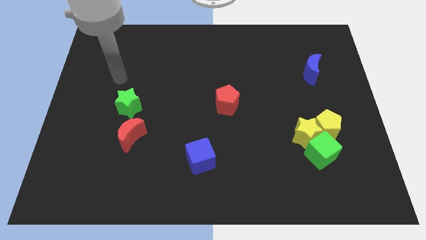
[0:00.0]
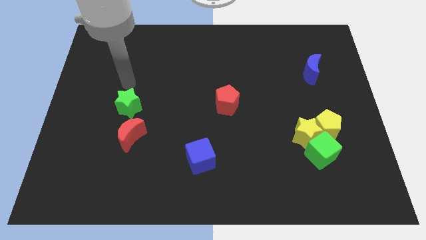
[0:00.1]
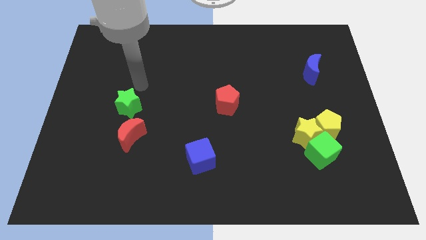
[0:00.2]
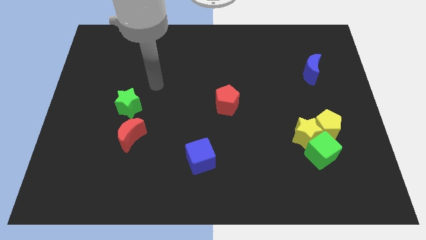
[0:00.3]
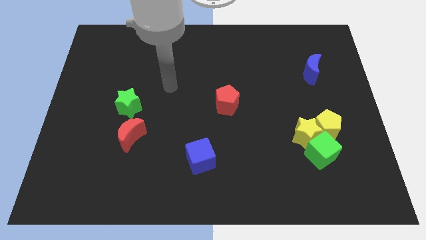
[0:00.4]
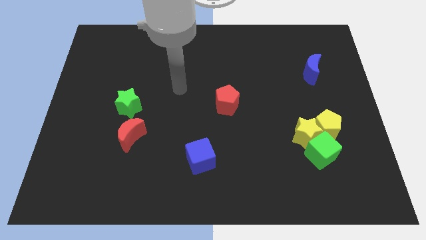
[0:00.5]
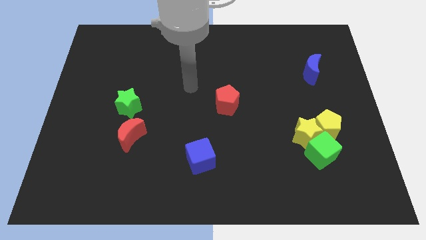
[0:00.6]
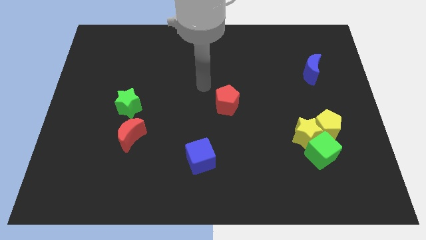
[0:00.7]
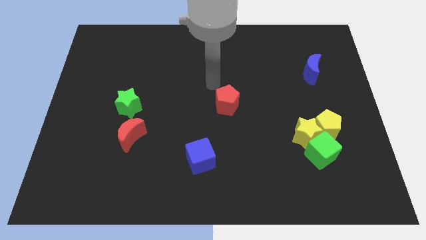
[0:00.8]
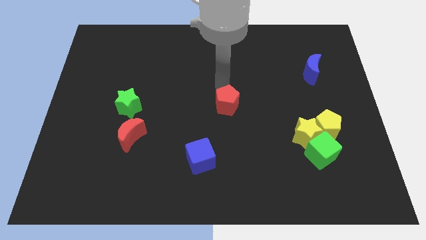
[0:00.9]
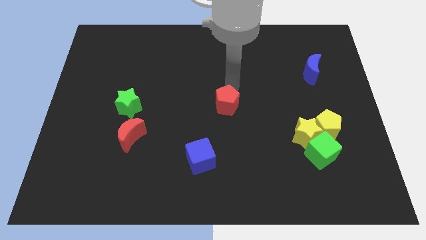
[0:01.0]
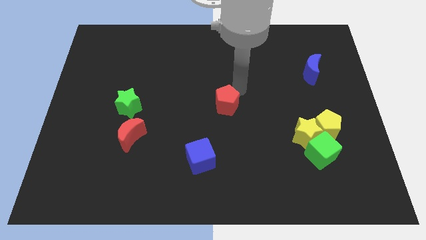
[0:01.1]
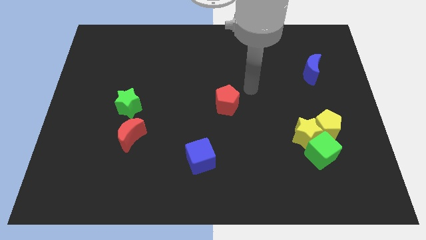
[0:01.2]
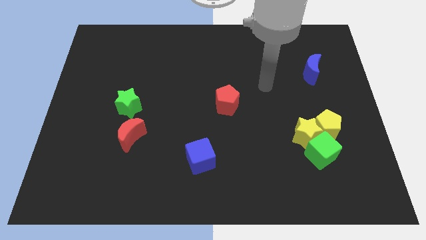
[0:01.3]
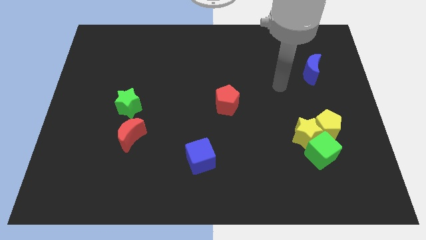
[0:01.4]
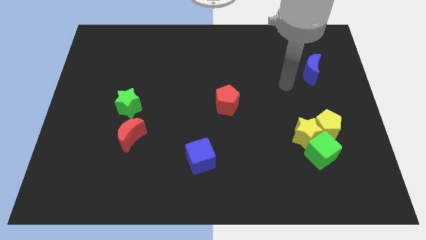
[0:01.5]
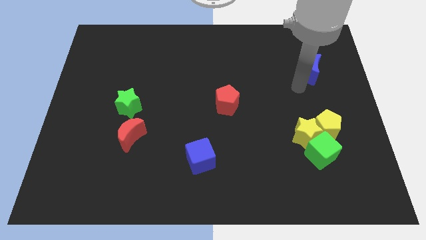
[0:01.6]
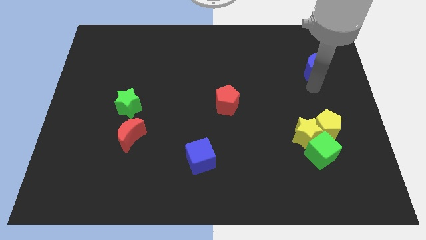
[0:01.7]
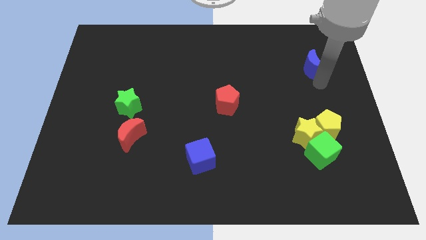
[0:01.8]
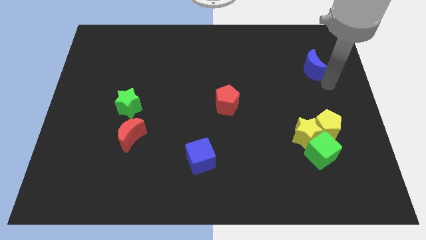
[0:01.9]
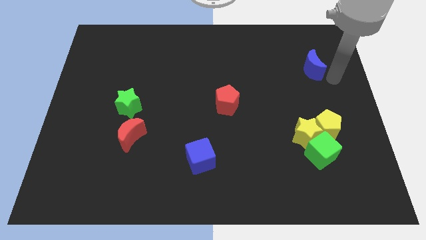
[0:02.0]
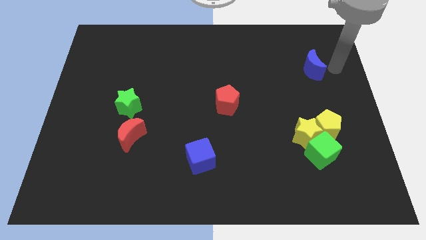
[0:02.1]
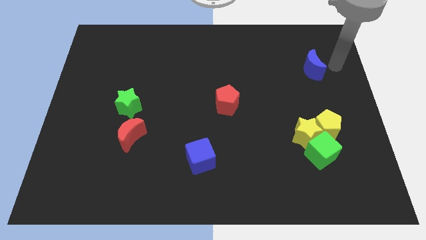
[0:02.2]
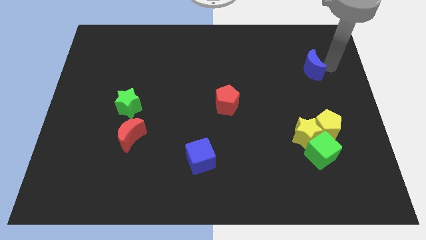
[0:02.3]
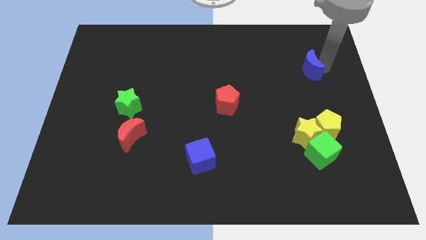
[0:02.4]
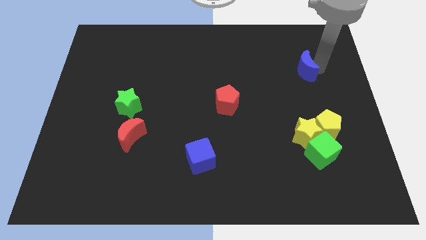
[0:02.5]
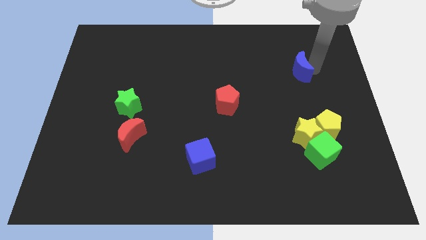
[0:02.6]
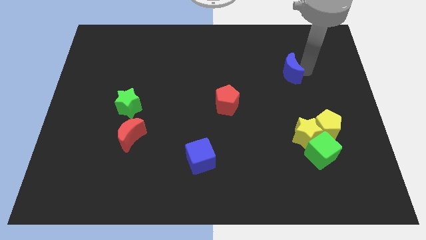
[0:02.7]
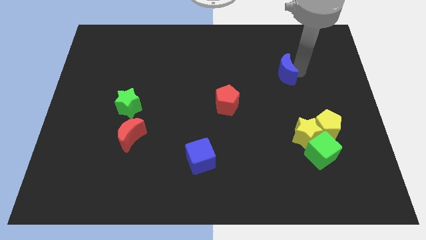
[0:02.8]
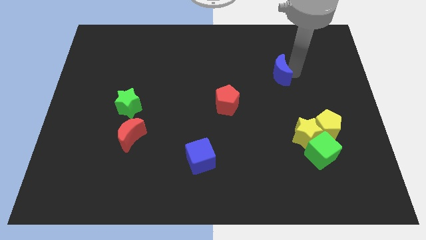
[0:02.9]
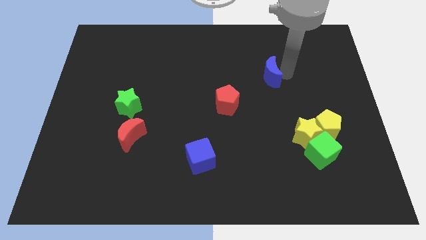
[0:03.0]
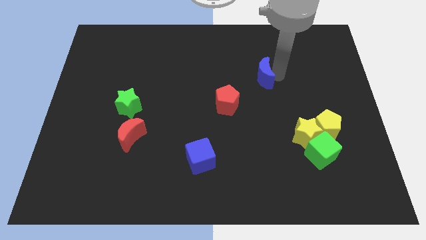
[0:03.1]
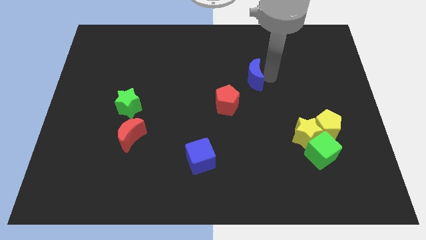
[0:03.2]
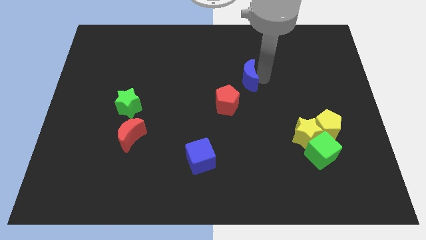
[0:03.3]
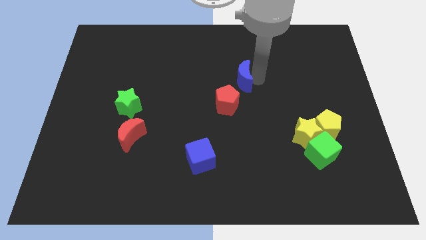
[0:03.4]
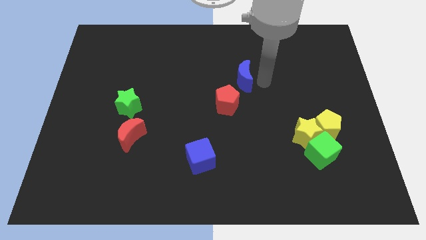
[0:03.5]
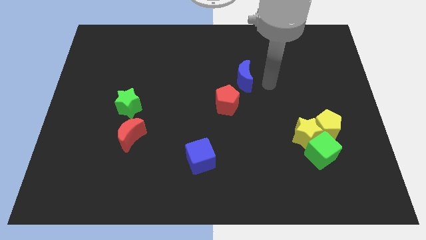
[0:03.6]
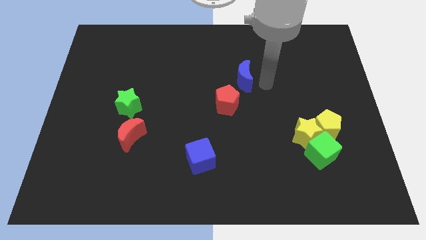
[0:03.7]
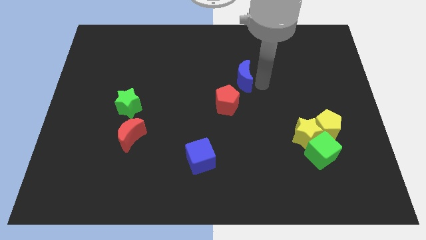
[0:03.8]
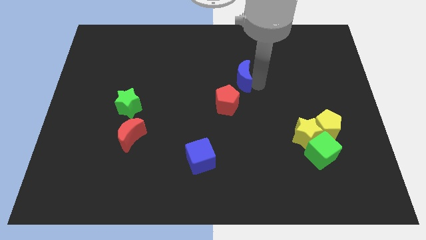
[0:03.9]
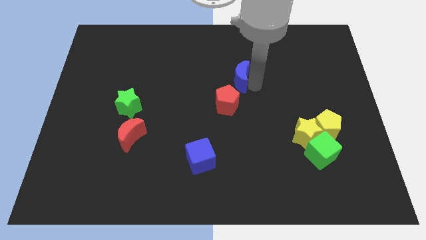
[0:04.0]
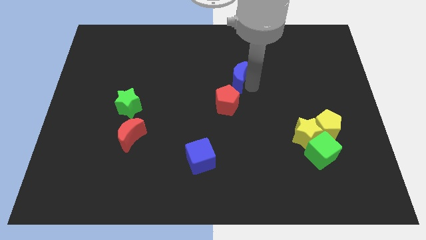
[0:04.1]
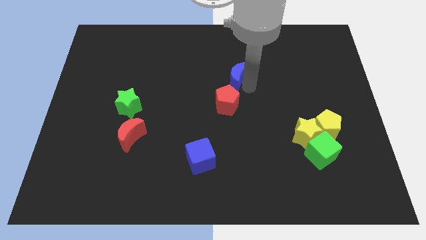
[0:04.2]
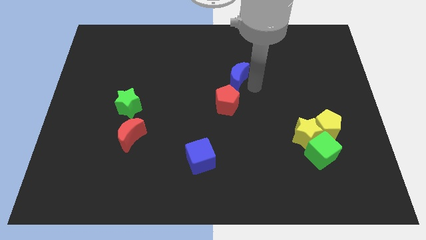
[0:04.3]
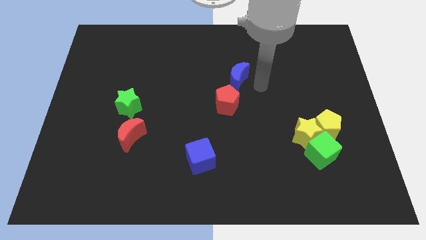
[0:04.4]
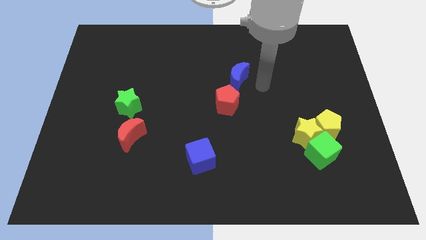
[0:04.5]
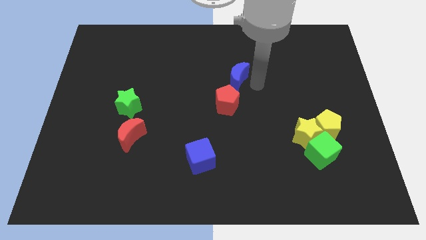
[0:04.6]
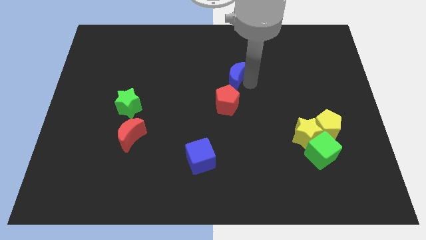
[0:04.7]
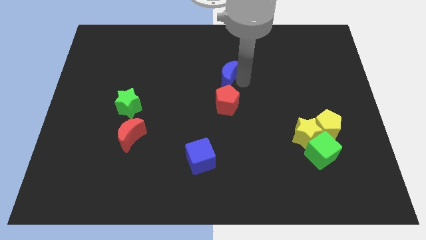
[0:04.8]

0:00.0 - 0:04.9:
move the blue moon left

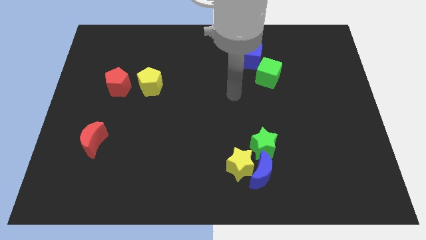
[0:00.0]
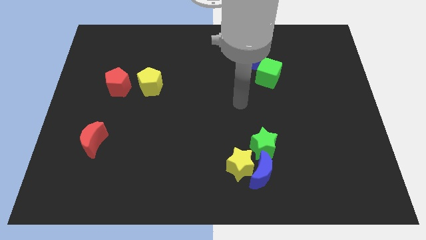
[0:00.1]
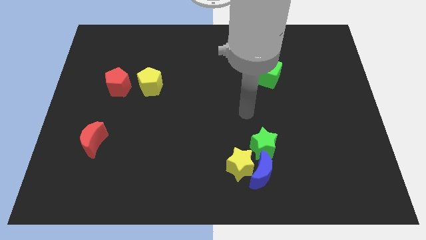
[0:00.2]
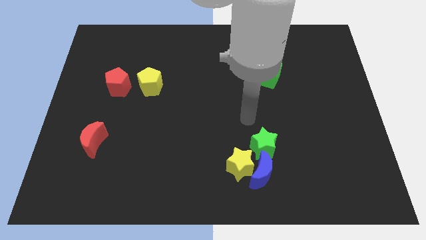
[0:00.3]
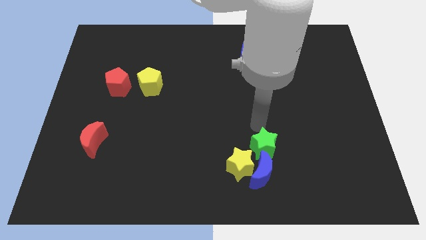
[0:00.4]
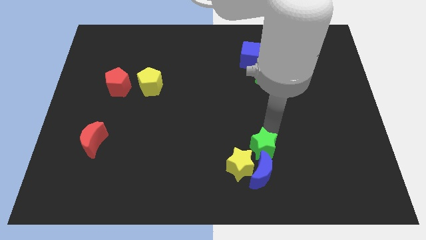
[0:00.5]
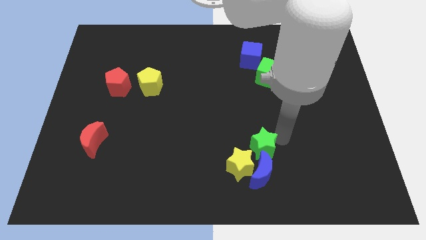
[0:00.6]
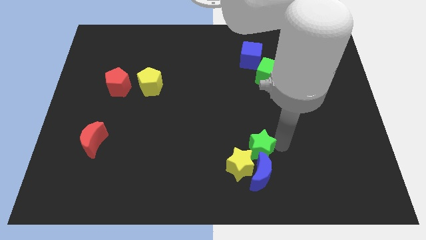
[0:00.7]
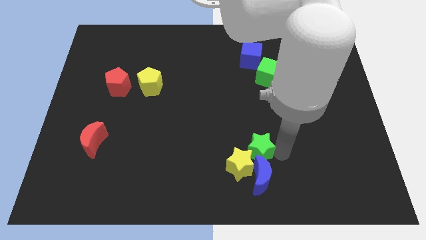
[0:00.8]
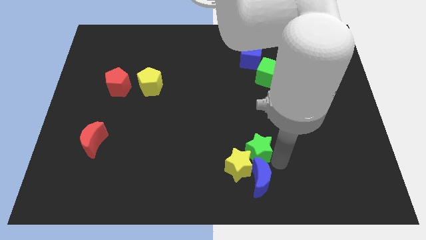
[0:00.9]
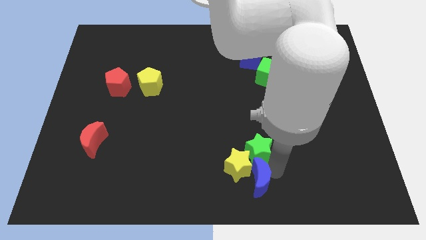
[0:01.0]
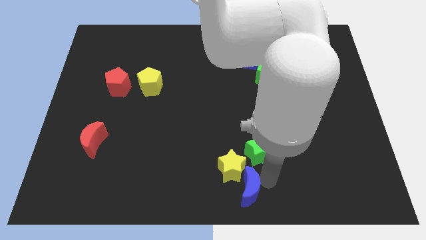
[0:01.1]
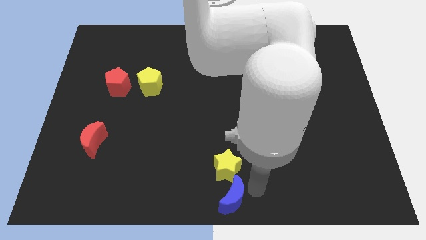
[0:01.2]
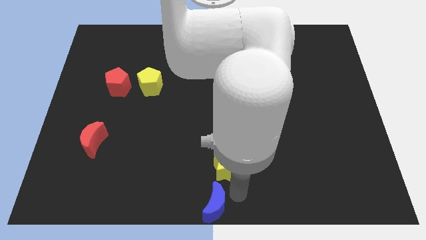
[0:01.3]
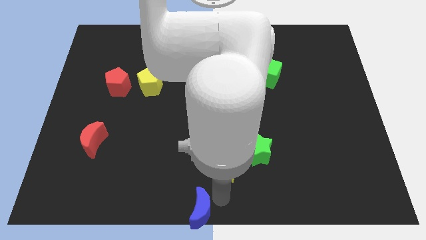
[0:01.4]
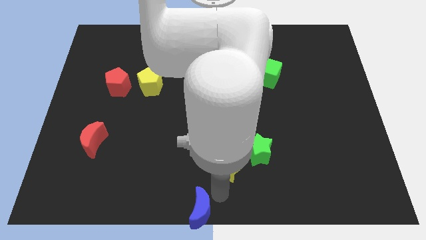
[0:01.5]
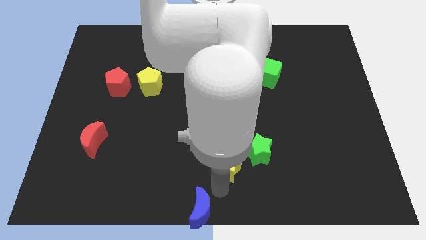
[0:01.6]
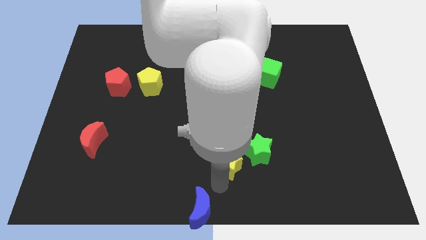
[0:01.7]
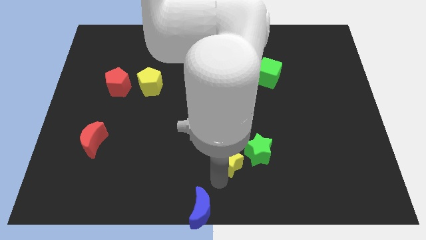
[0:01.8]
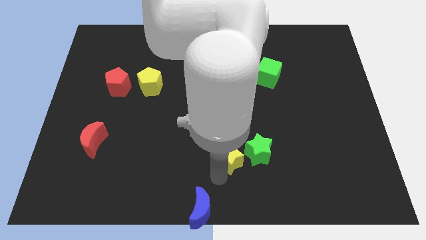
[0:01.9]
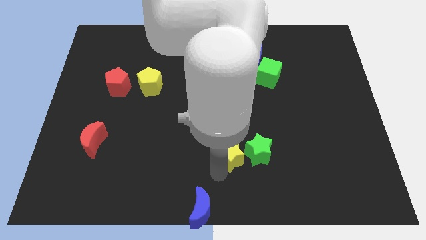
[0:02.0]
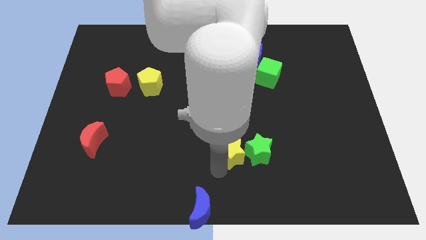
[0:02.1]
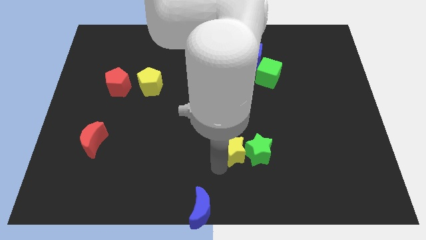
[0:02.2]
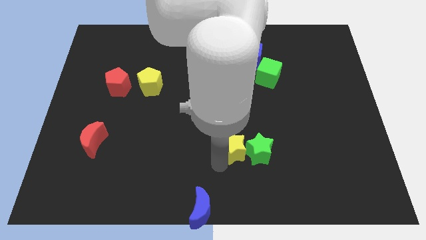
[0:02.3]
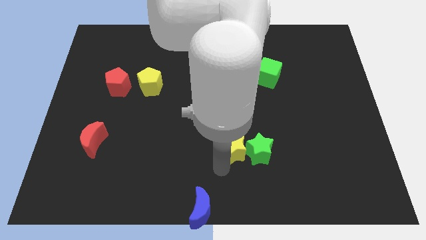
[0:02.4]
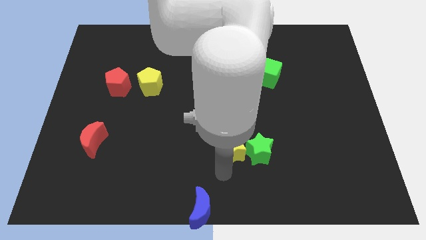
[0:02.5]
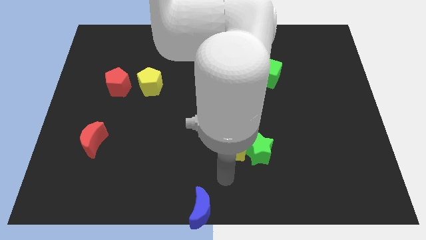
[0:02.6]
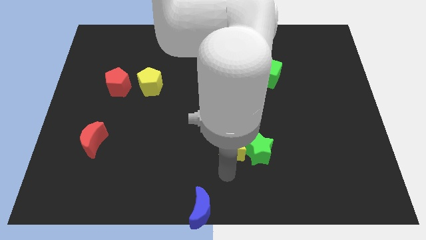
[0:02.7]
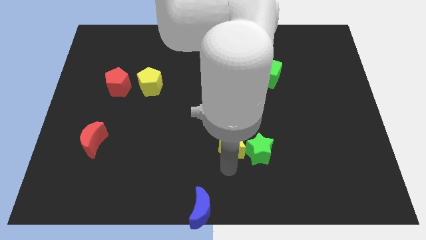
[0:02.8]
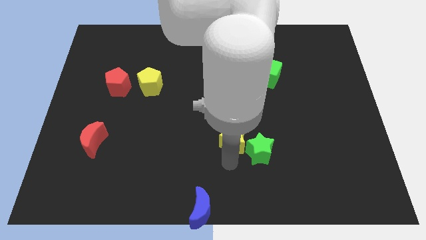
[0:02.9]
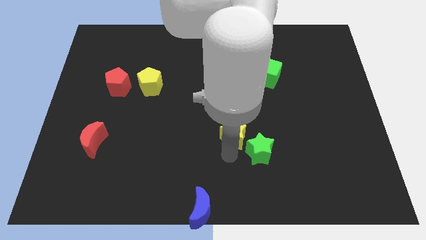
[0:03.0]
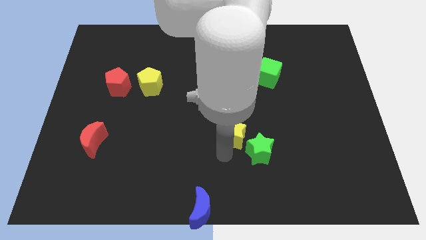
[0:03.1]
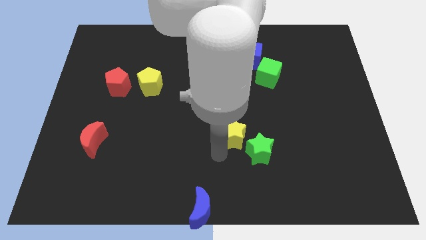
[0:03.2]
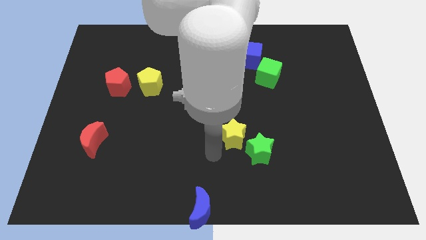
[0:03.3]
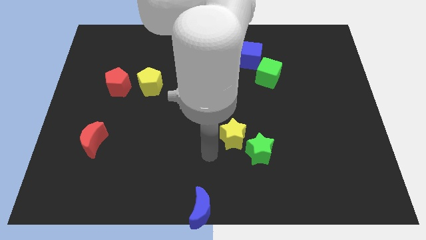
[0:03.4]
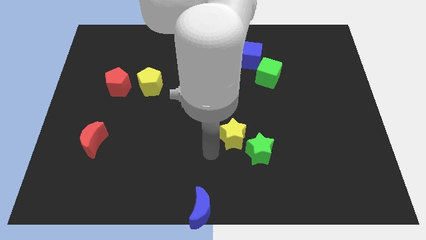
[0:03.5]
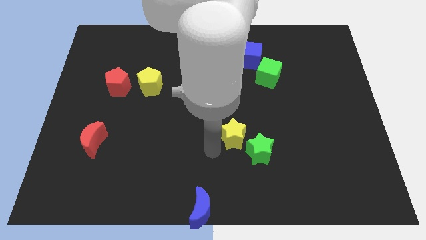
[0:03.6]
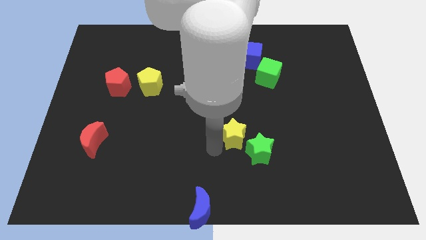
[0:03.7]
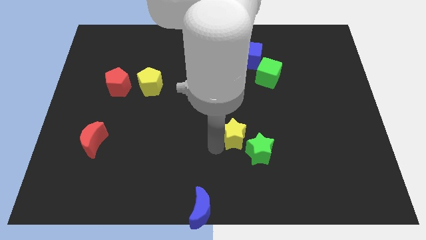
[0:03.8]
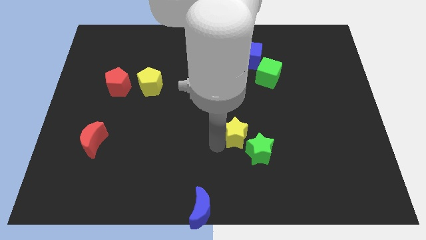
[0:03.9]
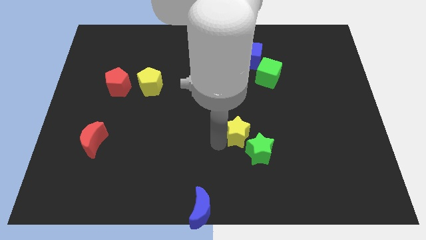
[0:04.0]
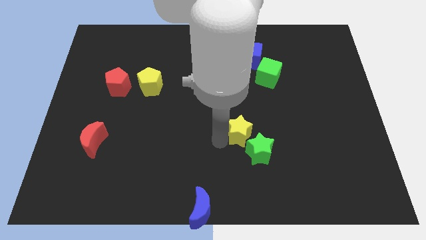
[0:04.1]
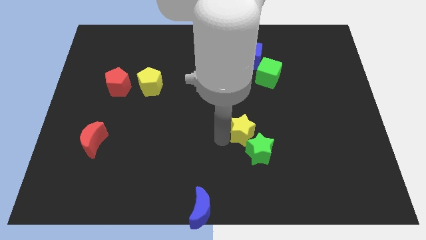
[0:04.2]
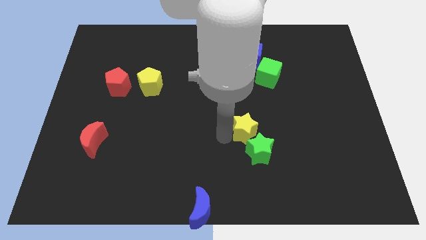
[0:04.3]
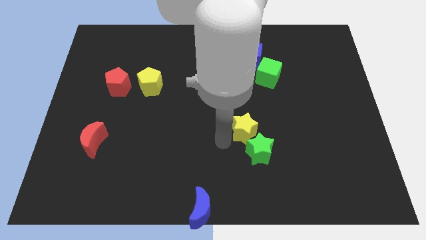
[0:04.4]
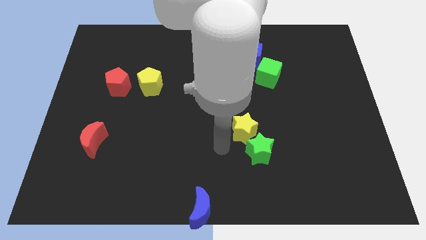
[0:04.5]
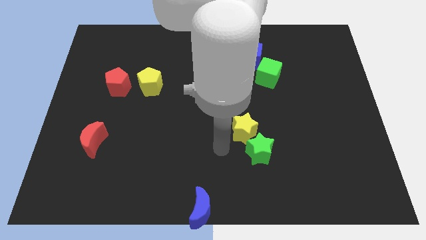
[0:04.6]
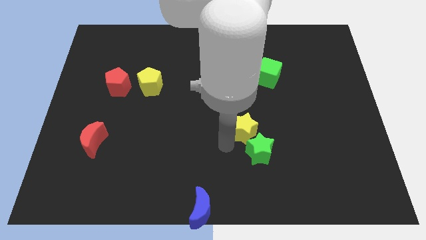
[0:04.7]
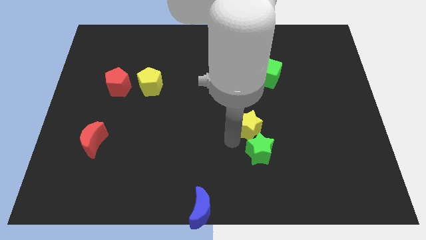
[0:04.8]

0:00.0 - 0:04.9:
push the yellow star a little upwards and then to the right
